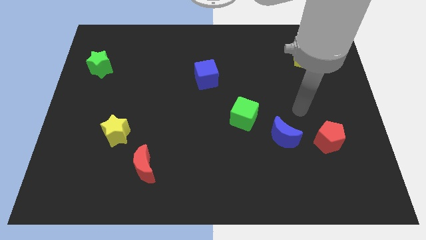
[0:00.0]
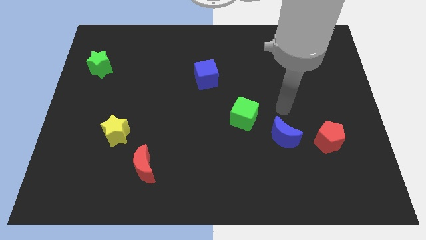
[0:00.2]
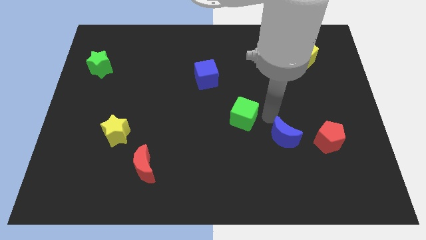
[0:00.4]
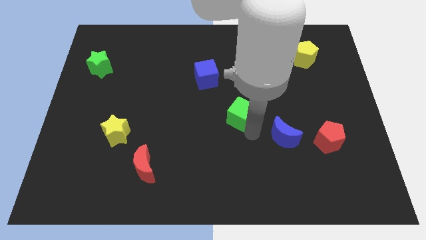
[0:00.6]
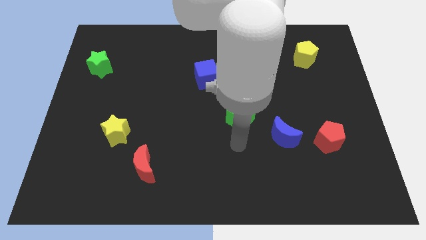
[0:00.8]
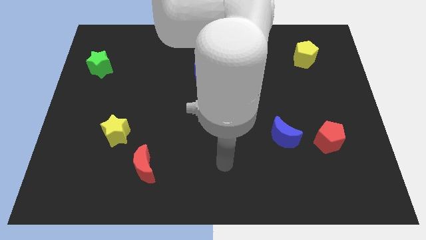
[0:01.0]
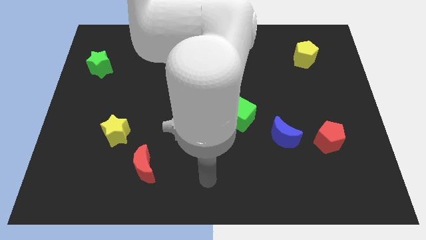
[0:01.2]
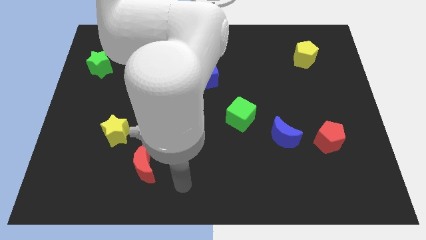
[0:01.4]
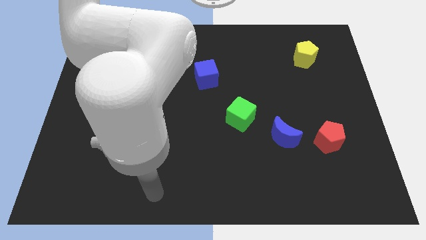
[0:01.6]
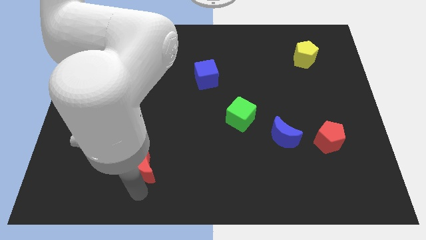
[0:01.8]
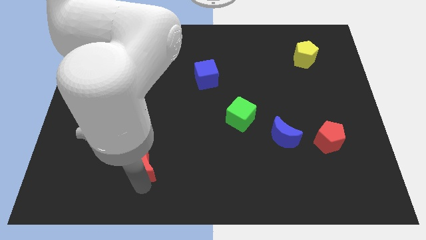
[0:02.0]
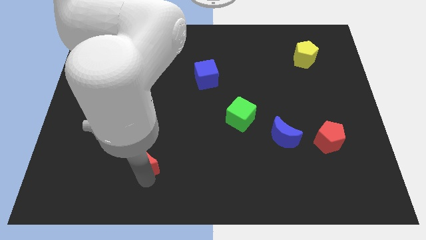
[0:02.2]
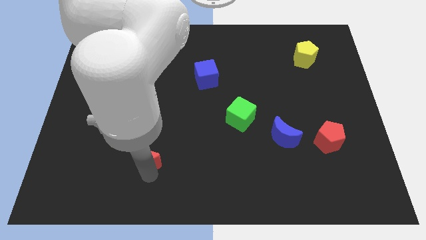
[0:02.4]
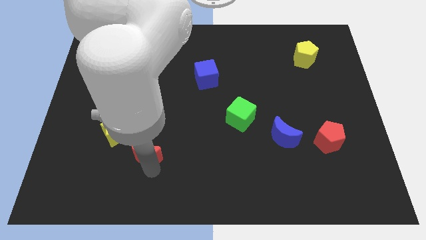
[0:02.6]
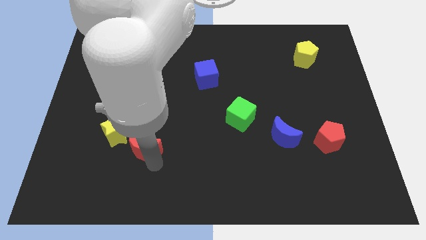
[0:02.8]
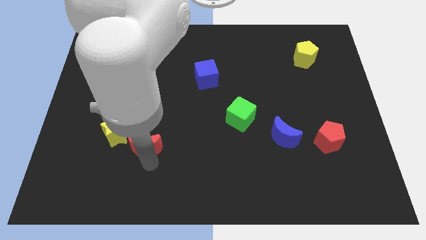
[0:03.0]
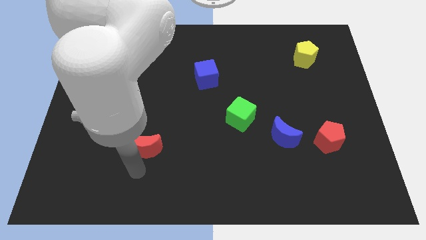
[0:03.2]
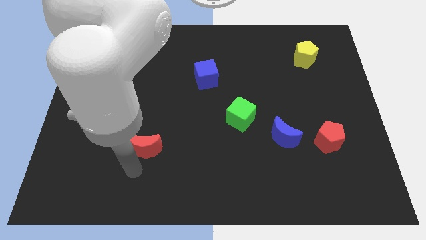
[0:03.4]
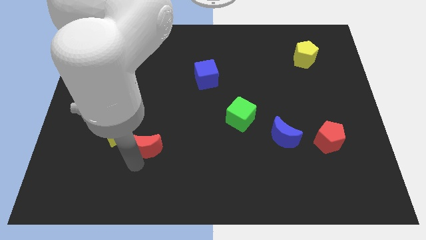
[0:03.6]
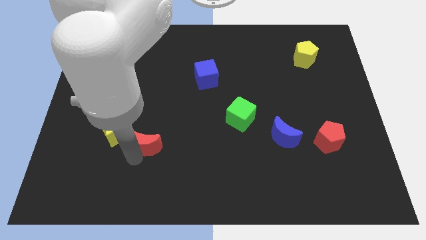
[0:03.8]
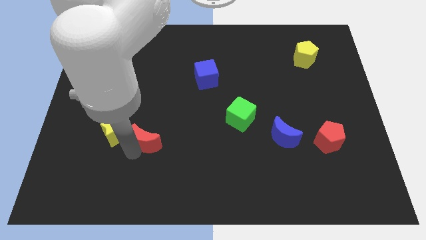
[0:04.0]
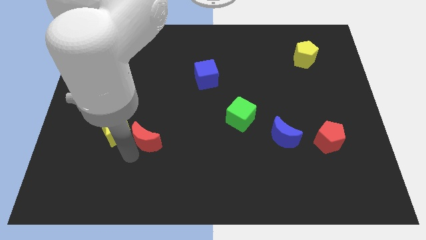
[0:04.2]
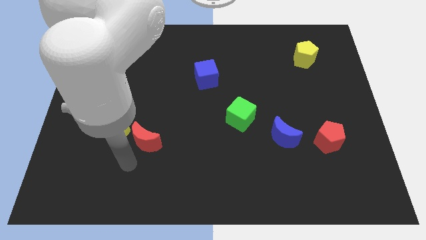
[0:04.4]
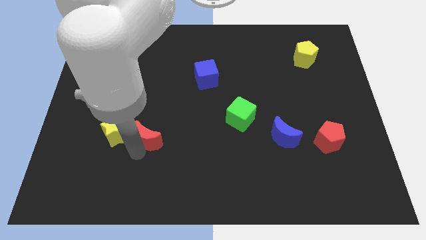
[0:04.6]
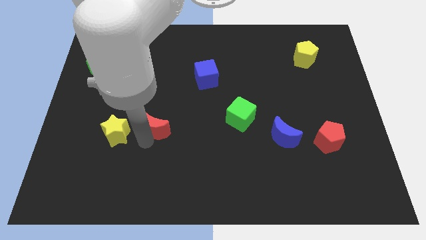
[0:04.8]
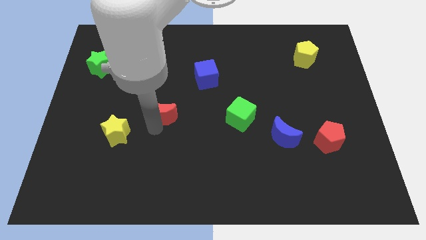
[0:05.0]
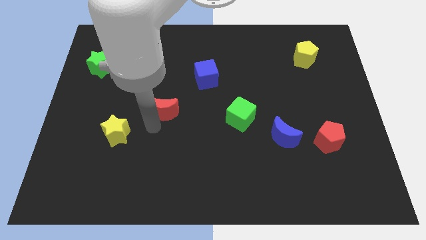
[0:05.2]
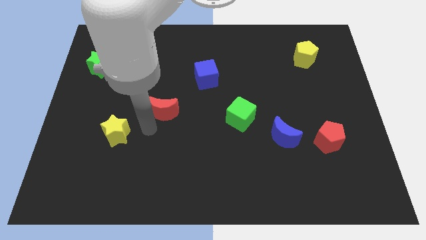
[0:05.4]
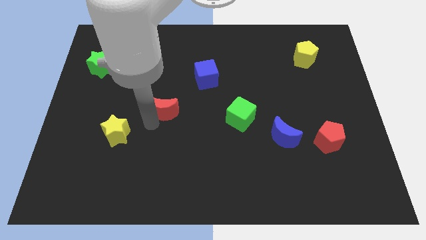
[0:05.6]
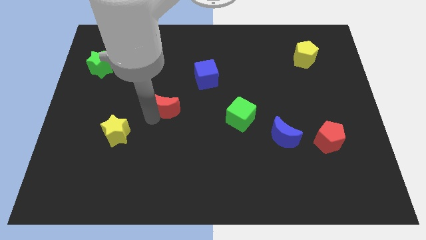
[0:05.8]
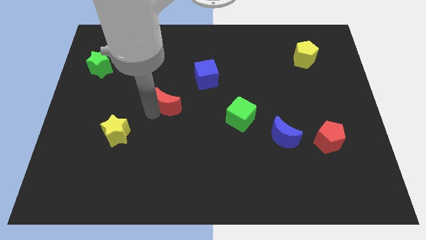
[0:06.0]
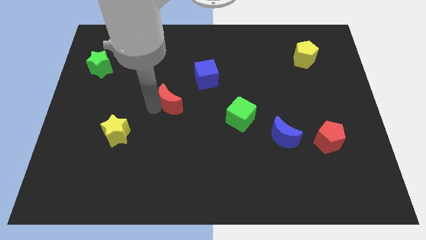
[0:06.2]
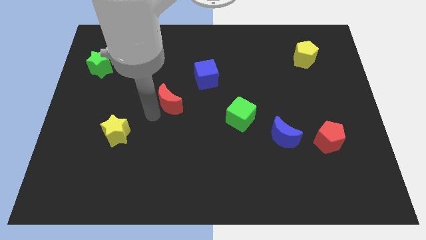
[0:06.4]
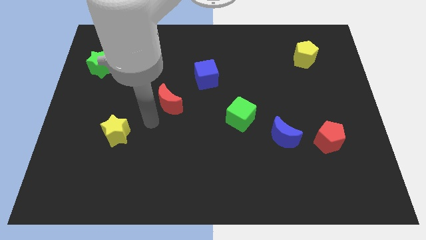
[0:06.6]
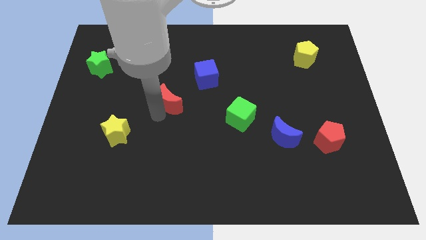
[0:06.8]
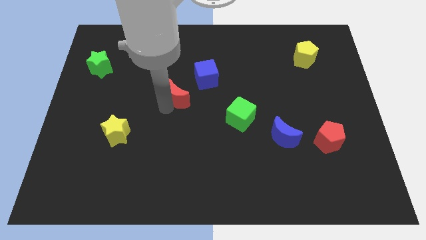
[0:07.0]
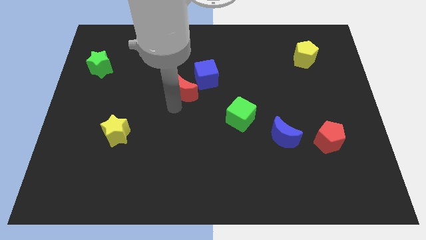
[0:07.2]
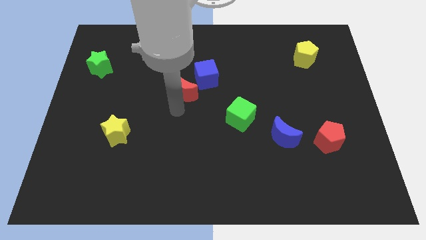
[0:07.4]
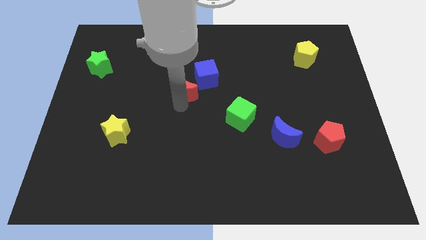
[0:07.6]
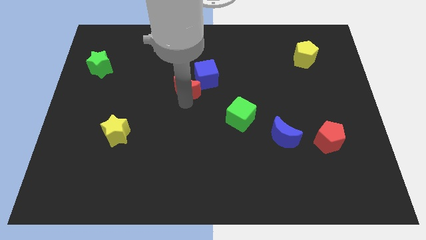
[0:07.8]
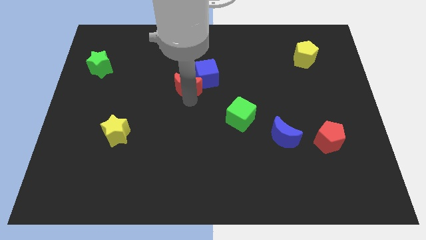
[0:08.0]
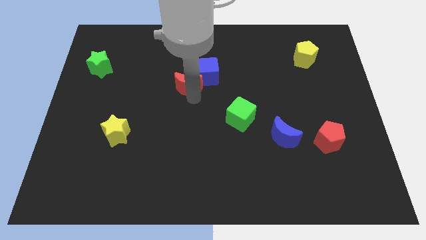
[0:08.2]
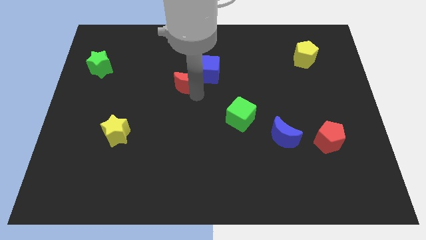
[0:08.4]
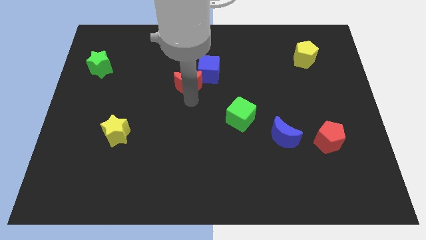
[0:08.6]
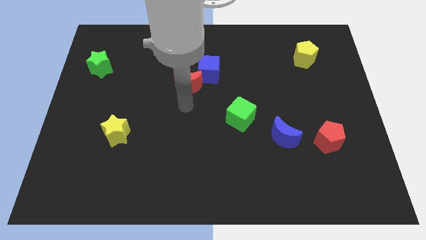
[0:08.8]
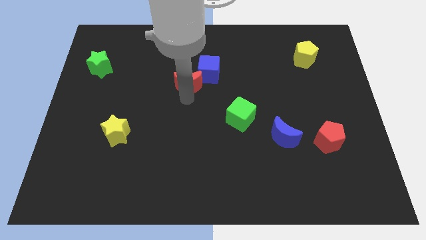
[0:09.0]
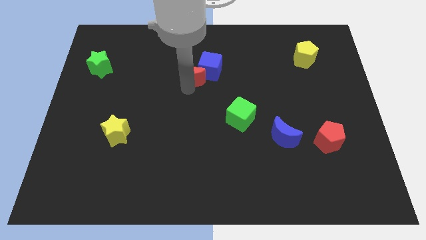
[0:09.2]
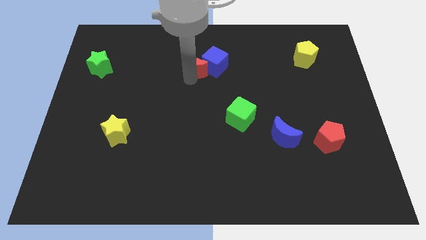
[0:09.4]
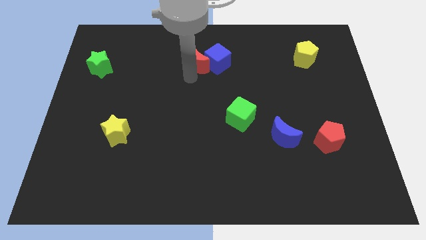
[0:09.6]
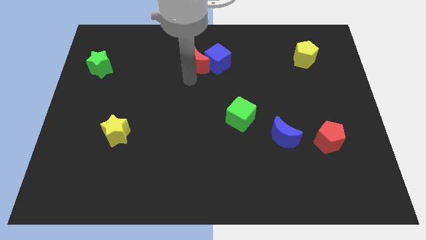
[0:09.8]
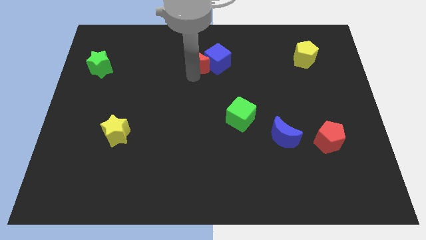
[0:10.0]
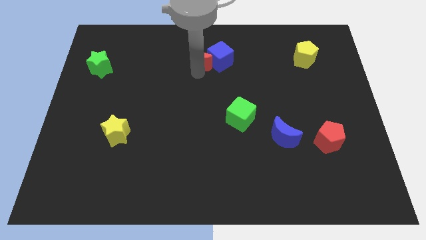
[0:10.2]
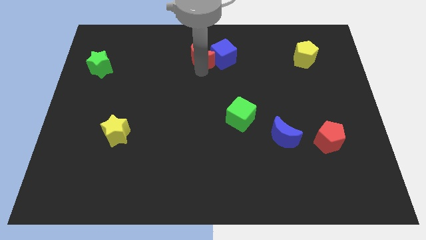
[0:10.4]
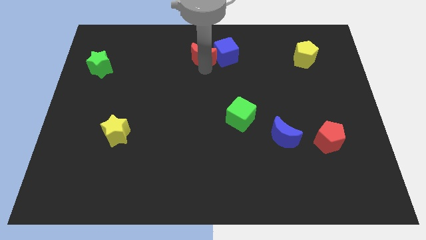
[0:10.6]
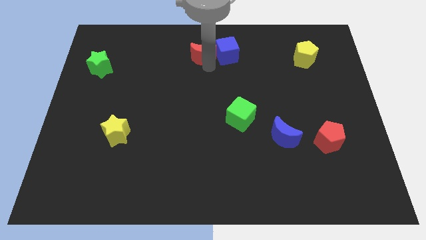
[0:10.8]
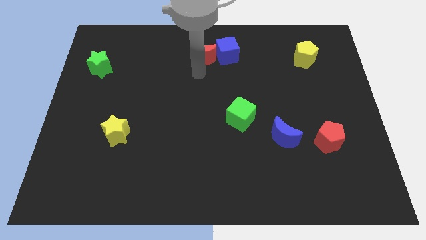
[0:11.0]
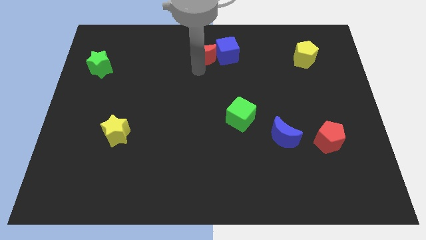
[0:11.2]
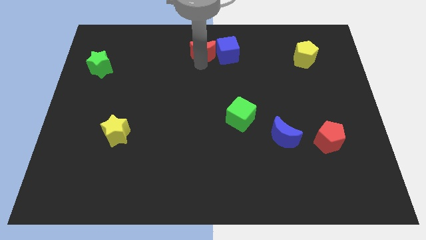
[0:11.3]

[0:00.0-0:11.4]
move the red moon to the top side
